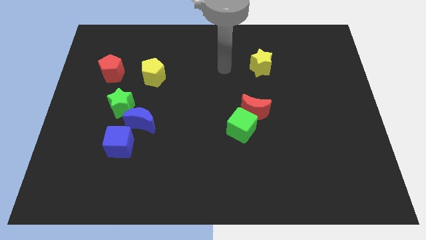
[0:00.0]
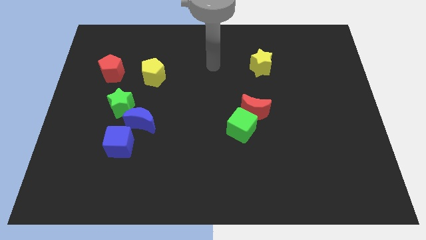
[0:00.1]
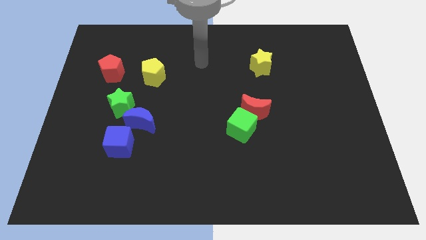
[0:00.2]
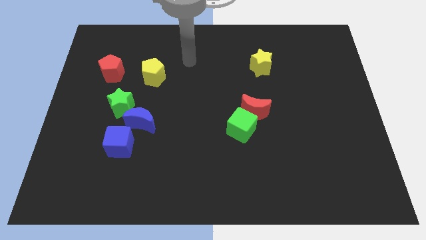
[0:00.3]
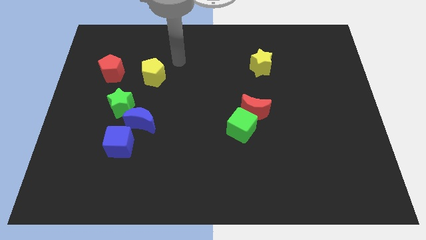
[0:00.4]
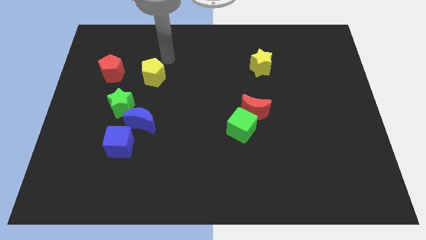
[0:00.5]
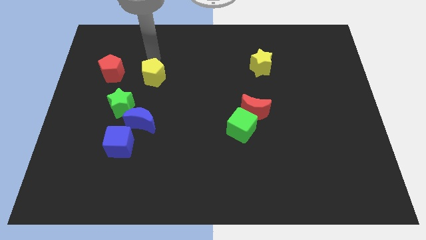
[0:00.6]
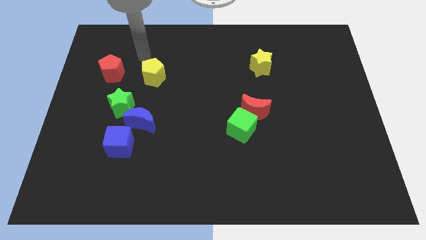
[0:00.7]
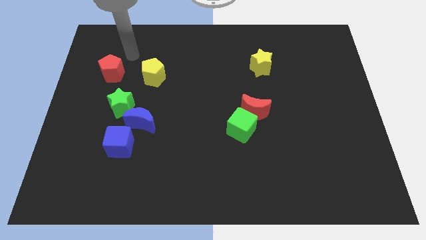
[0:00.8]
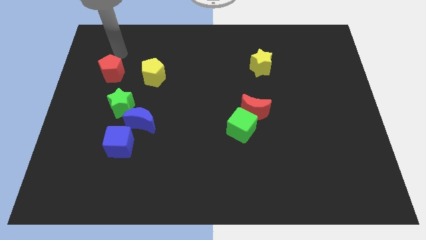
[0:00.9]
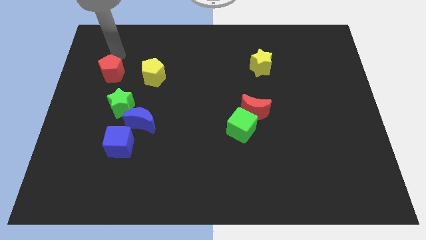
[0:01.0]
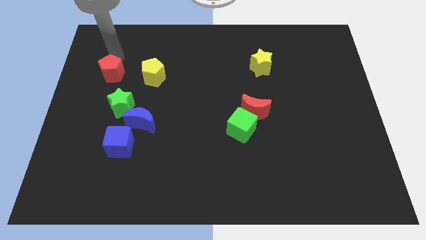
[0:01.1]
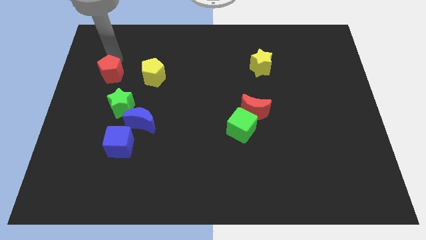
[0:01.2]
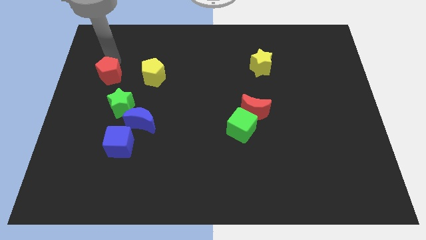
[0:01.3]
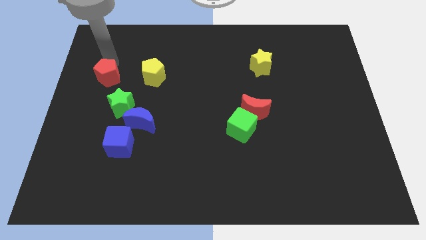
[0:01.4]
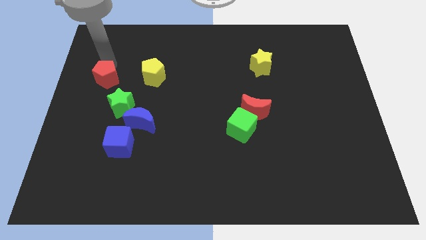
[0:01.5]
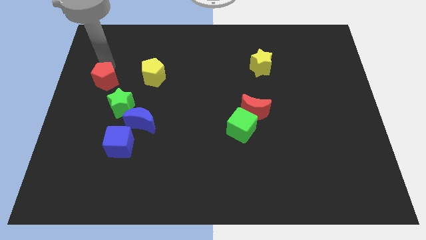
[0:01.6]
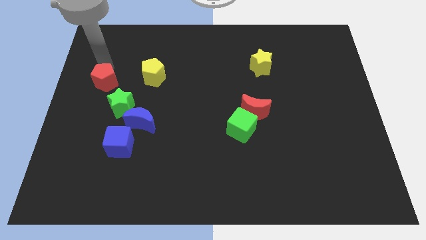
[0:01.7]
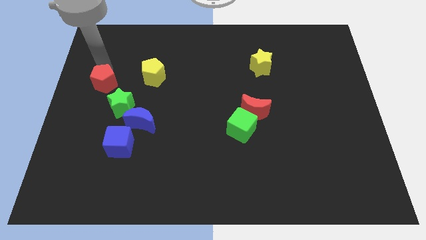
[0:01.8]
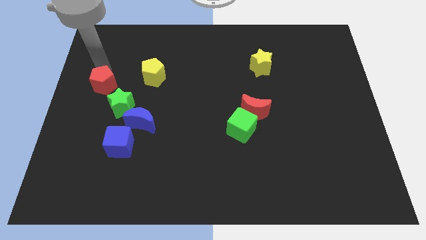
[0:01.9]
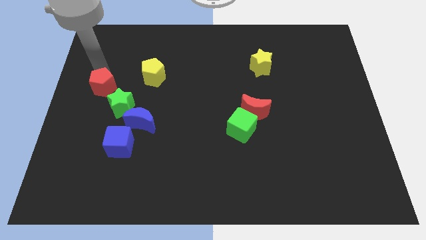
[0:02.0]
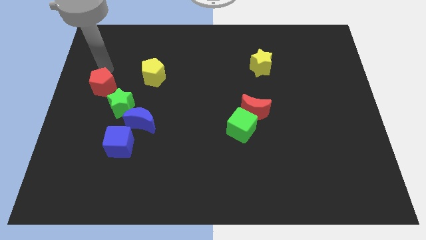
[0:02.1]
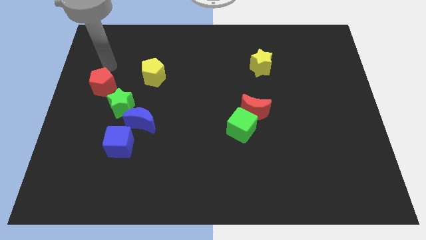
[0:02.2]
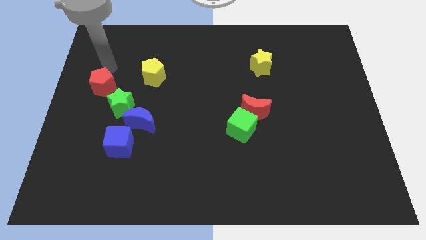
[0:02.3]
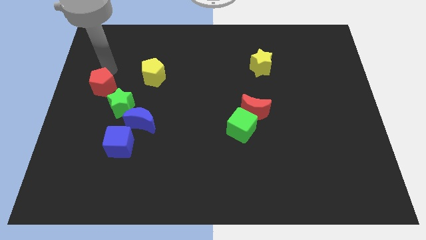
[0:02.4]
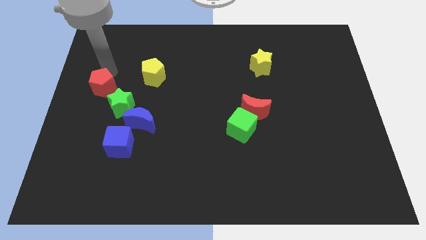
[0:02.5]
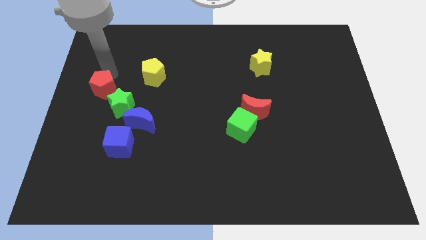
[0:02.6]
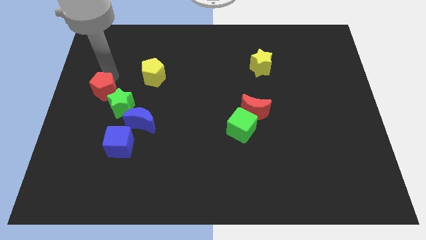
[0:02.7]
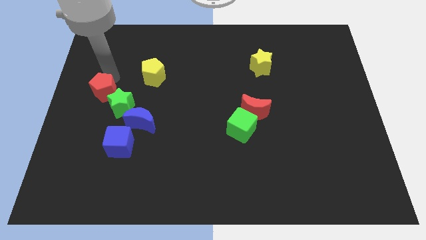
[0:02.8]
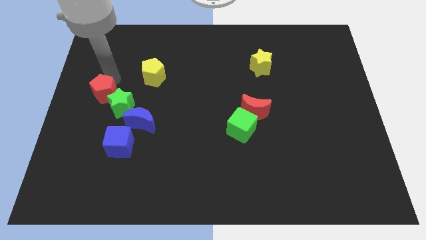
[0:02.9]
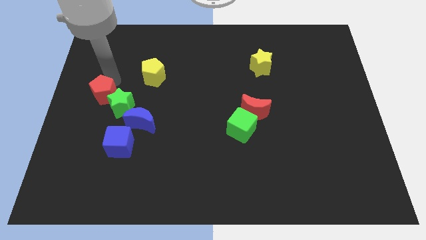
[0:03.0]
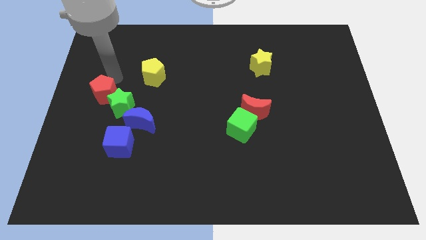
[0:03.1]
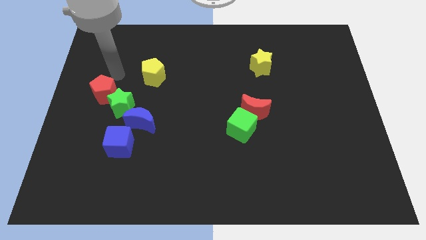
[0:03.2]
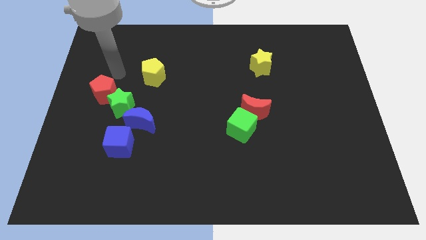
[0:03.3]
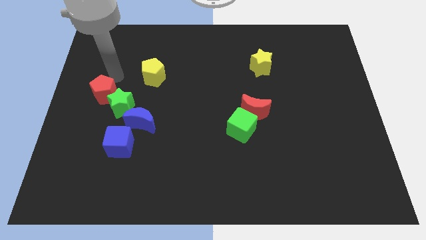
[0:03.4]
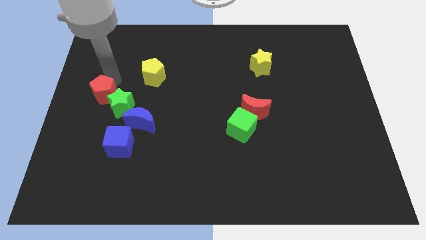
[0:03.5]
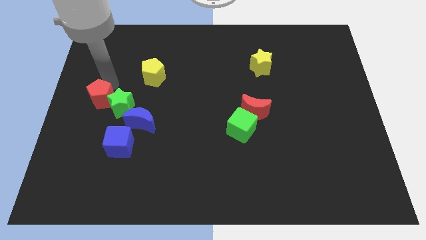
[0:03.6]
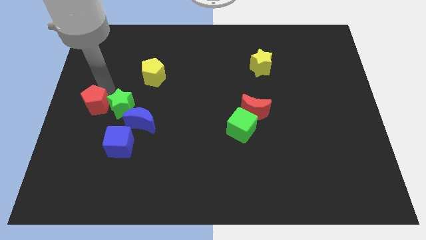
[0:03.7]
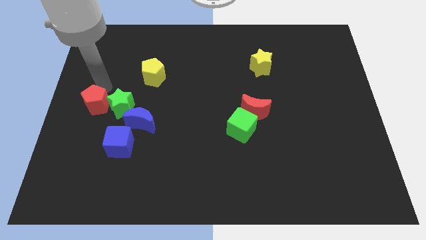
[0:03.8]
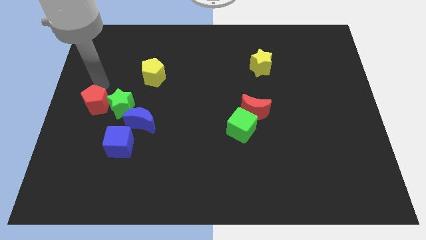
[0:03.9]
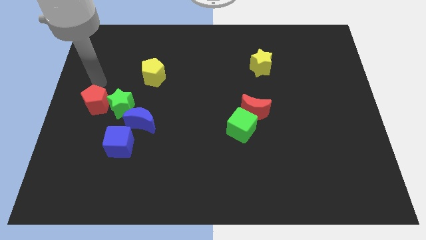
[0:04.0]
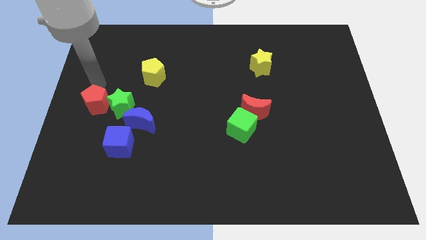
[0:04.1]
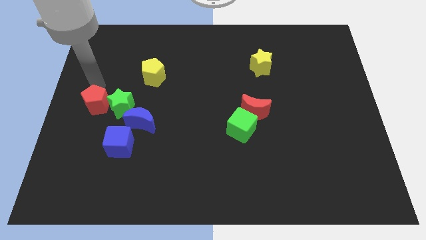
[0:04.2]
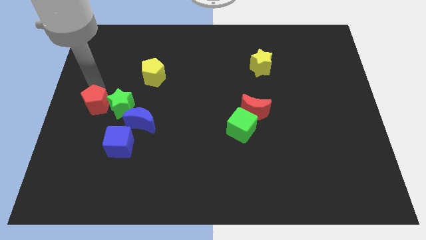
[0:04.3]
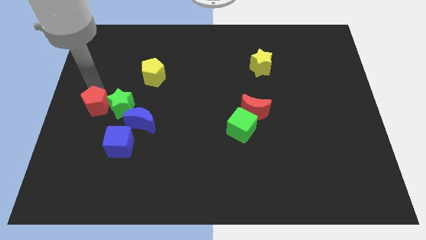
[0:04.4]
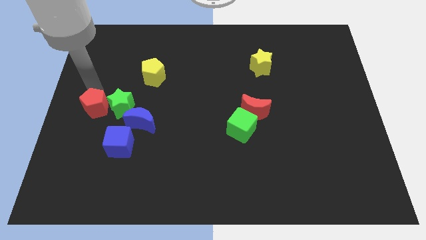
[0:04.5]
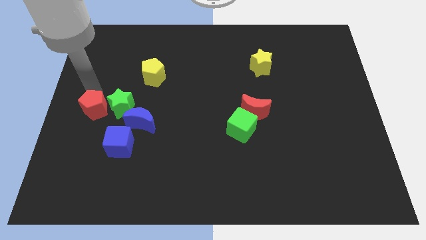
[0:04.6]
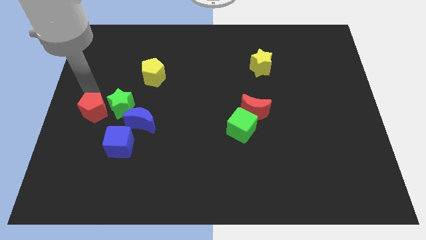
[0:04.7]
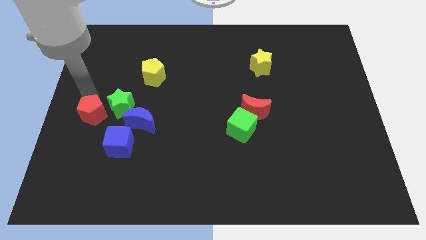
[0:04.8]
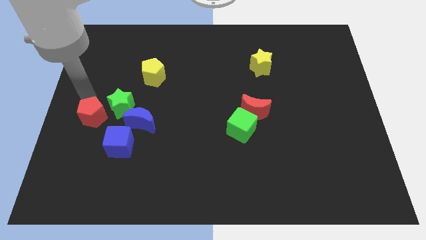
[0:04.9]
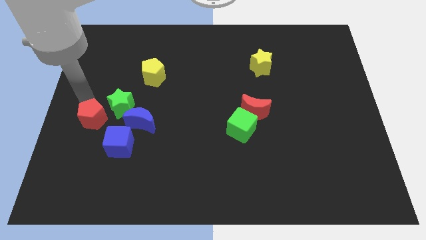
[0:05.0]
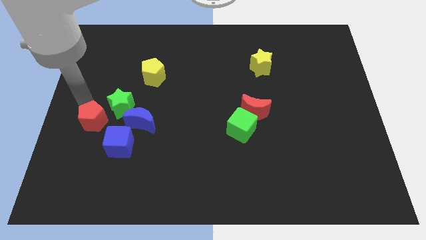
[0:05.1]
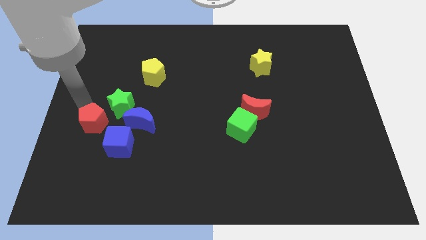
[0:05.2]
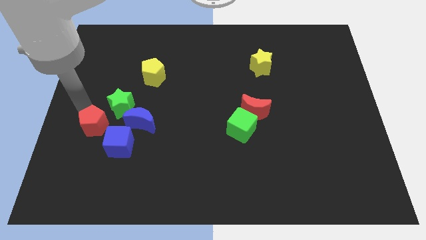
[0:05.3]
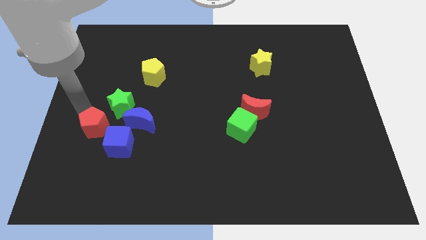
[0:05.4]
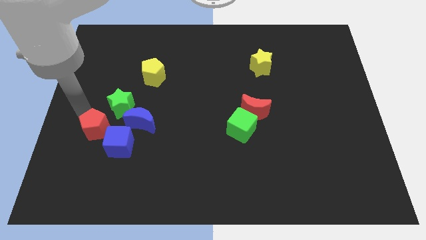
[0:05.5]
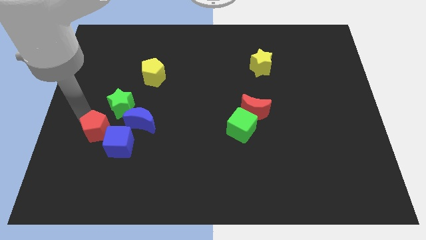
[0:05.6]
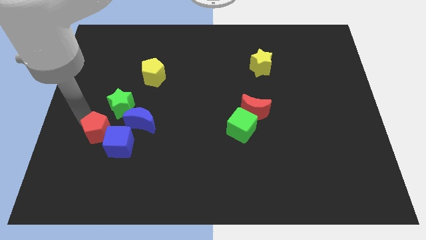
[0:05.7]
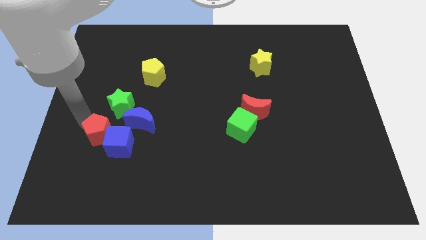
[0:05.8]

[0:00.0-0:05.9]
move the red pentagon close to the blue cube
